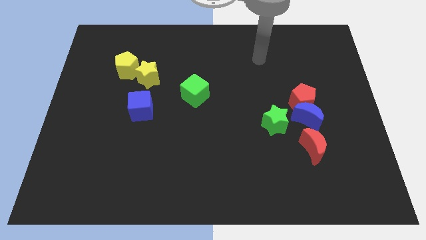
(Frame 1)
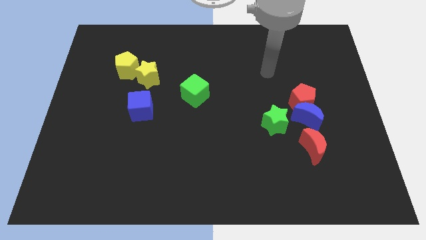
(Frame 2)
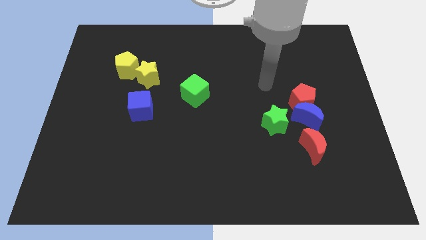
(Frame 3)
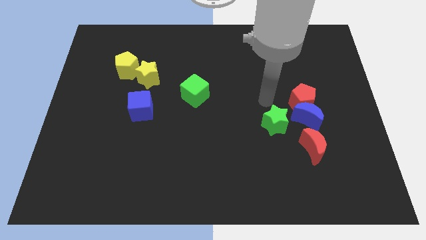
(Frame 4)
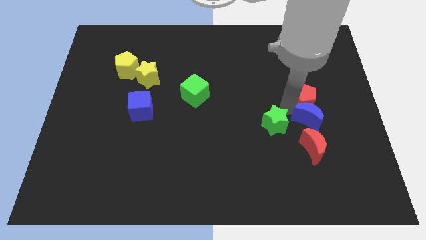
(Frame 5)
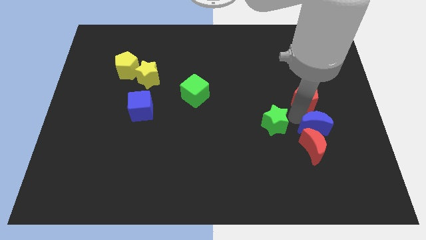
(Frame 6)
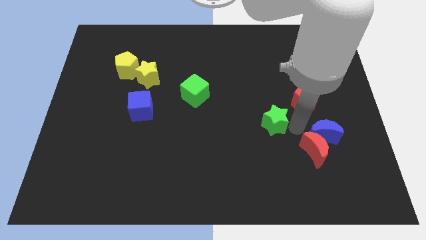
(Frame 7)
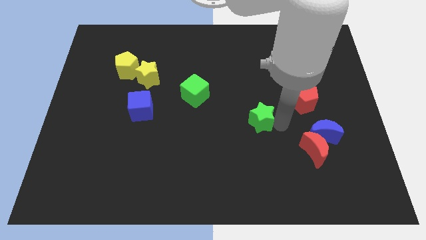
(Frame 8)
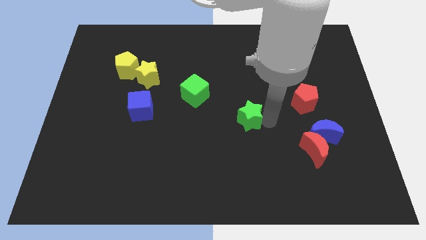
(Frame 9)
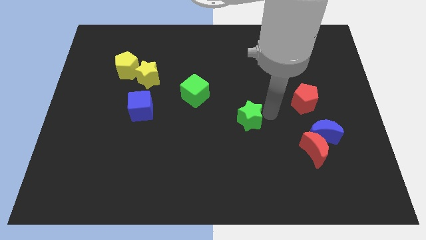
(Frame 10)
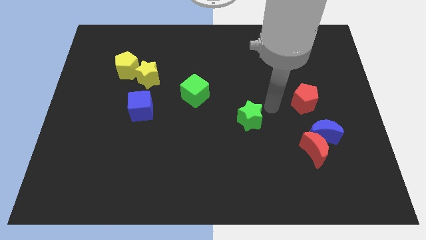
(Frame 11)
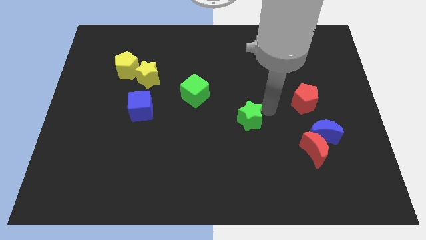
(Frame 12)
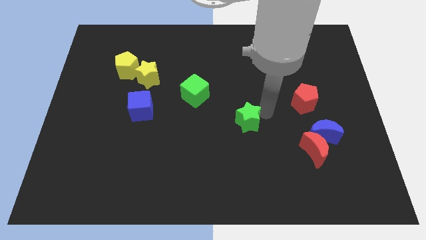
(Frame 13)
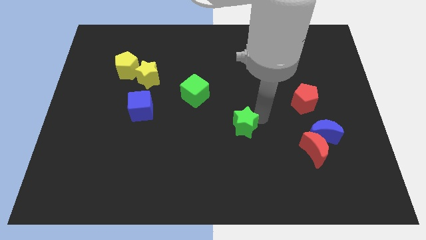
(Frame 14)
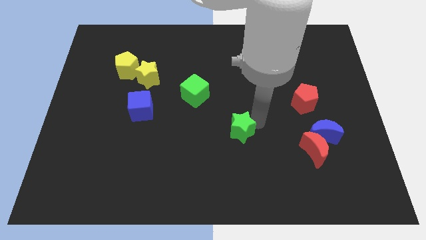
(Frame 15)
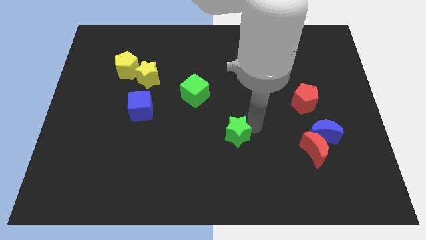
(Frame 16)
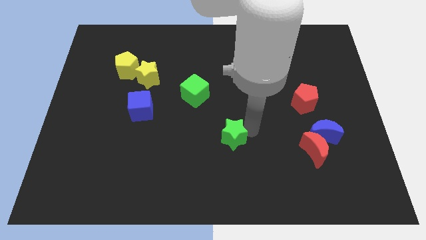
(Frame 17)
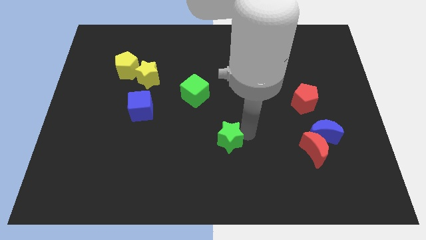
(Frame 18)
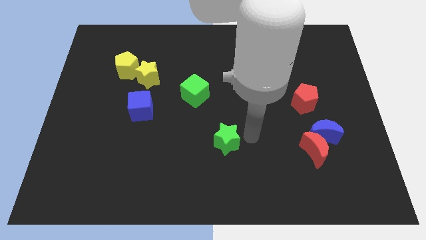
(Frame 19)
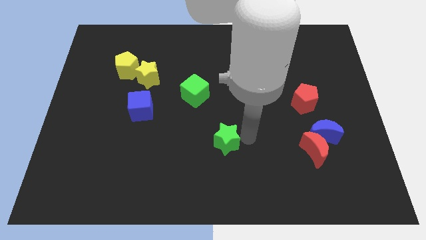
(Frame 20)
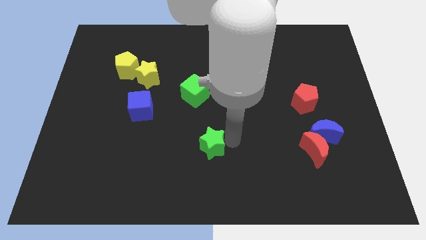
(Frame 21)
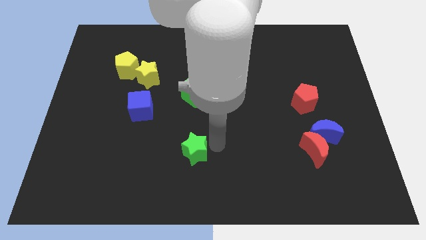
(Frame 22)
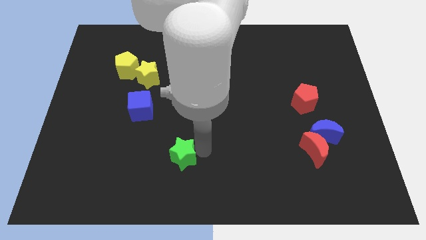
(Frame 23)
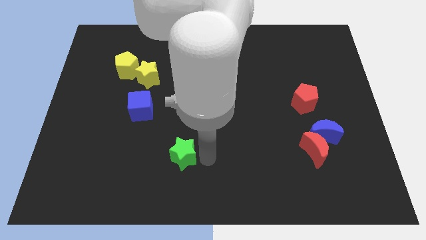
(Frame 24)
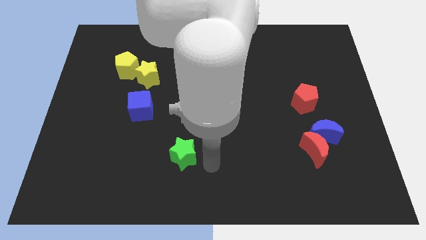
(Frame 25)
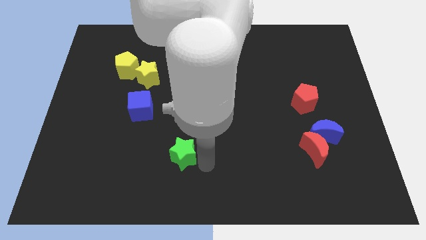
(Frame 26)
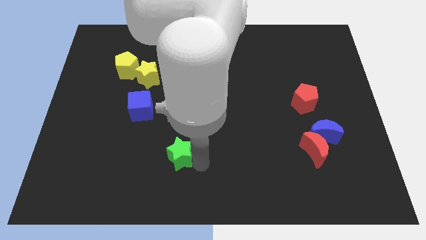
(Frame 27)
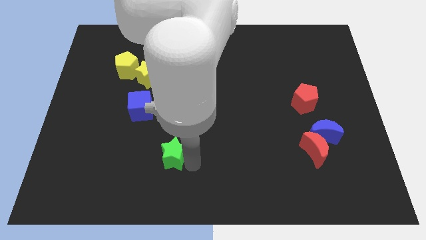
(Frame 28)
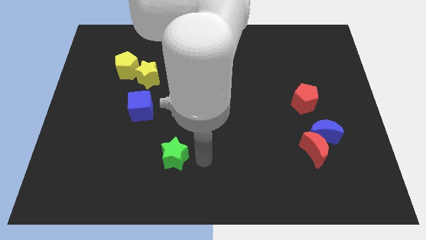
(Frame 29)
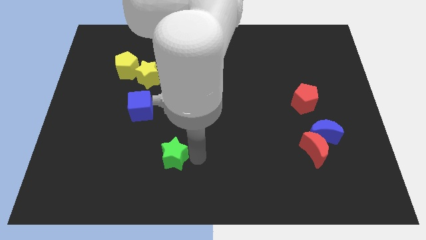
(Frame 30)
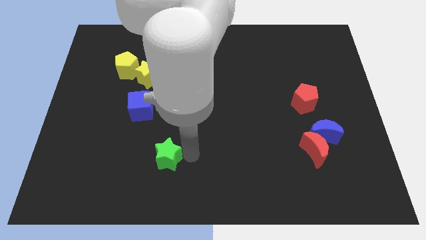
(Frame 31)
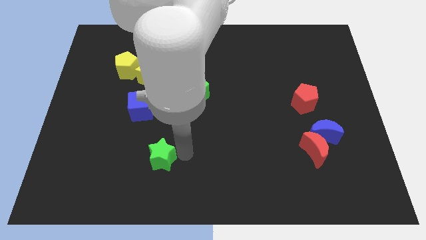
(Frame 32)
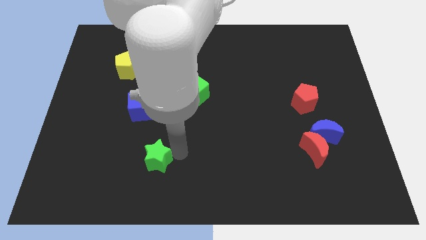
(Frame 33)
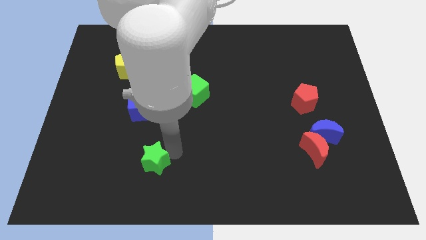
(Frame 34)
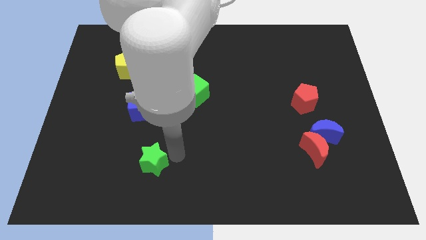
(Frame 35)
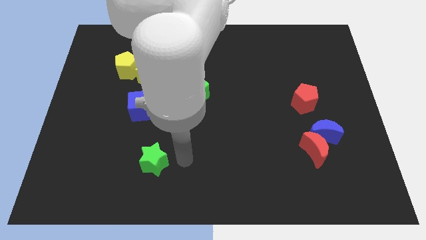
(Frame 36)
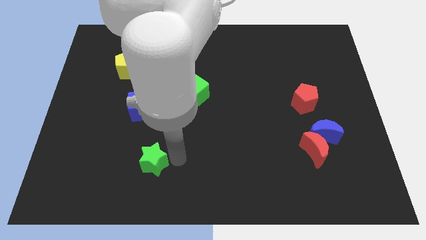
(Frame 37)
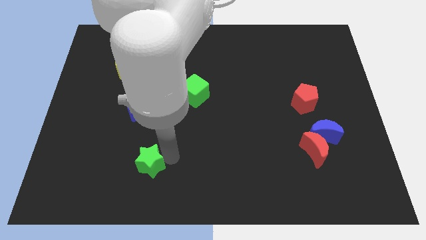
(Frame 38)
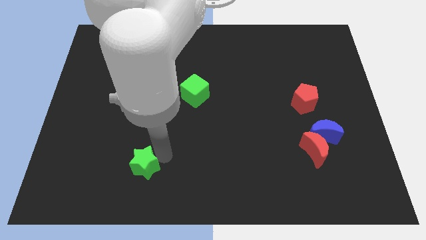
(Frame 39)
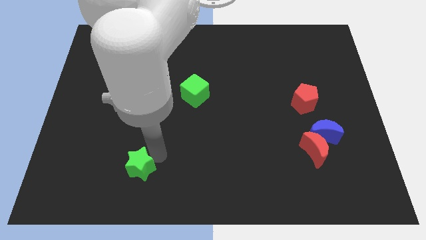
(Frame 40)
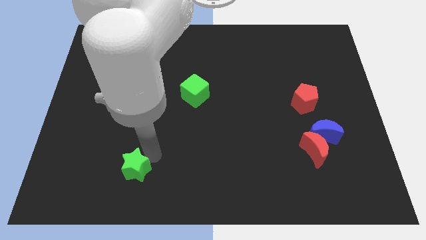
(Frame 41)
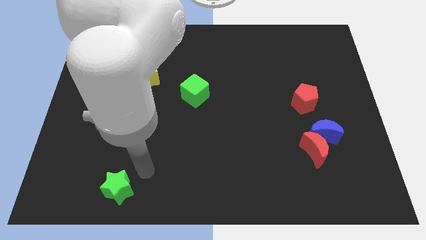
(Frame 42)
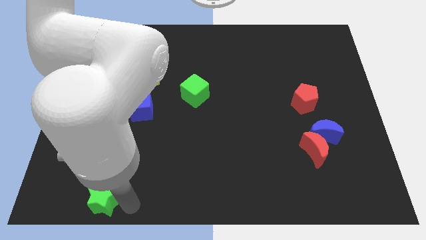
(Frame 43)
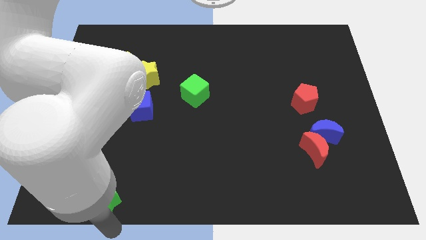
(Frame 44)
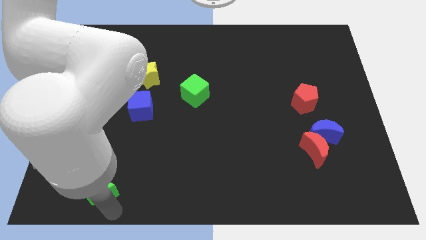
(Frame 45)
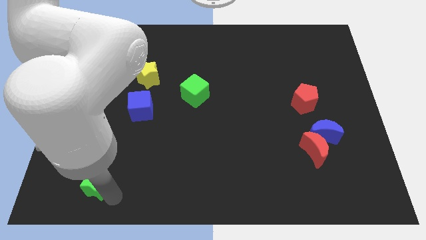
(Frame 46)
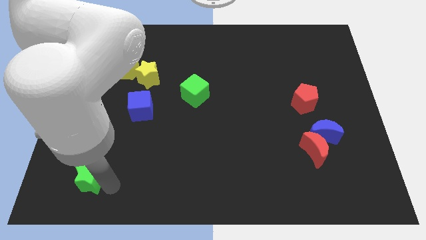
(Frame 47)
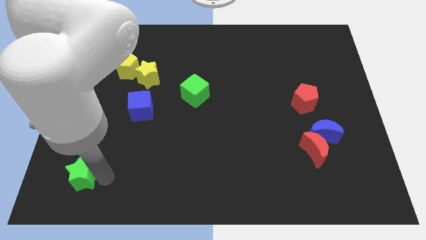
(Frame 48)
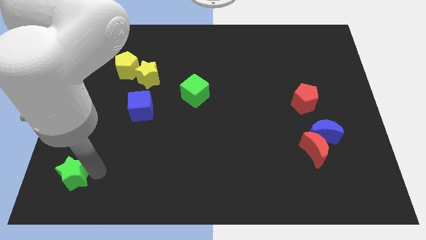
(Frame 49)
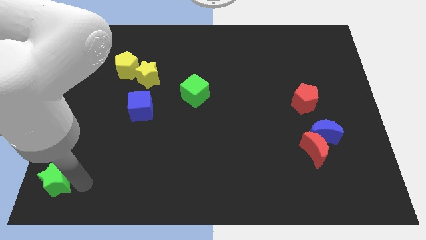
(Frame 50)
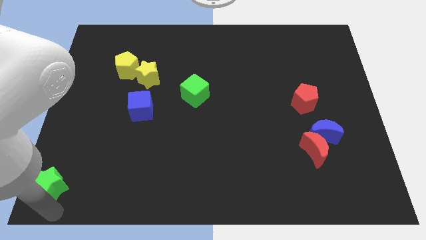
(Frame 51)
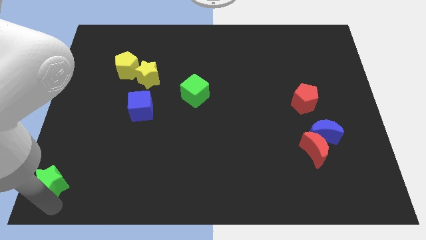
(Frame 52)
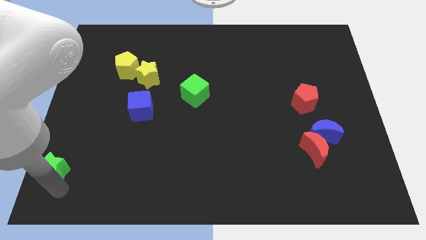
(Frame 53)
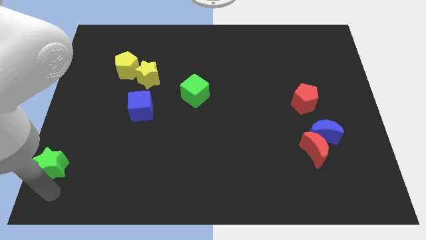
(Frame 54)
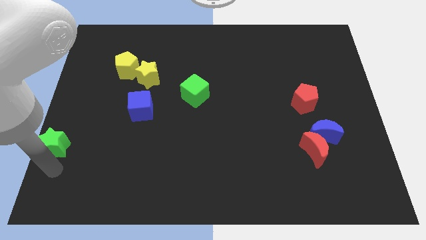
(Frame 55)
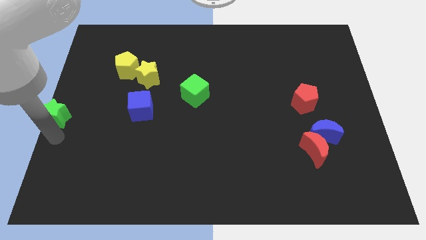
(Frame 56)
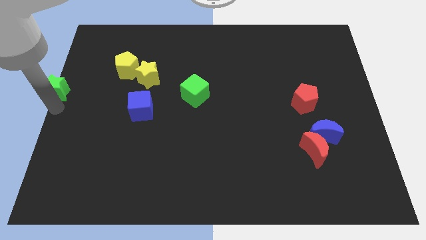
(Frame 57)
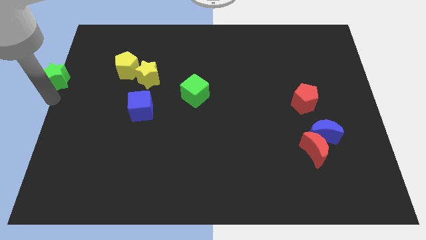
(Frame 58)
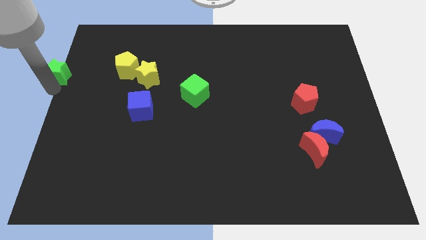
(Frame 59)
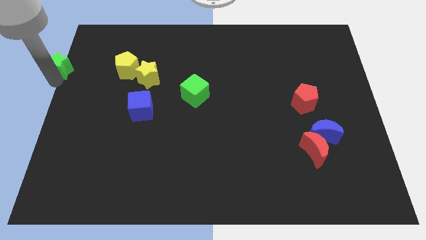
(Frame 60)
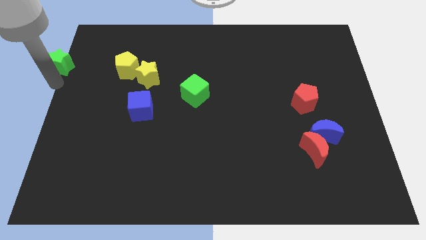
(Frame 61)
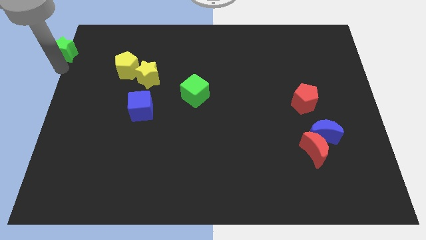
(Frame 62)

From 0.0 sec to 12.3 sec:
move the green star to the top left

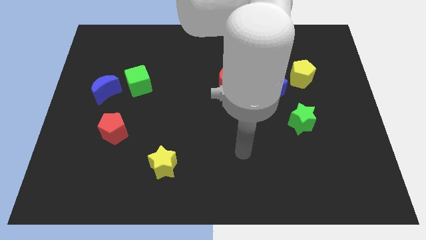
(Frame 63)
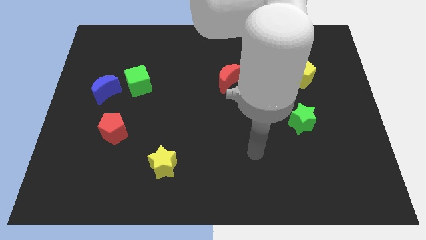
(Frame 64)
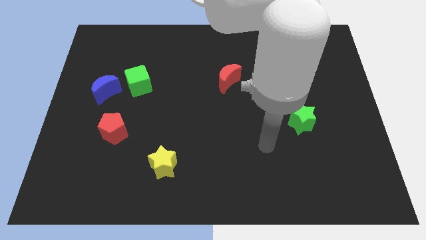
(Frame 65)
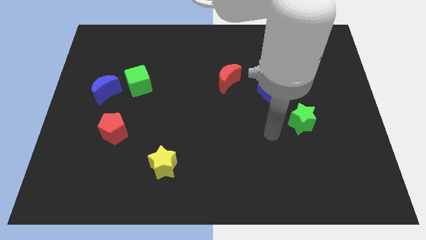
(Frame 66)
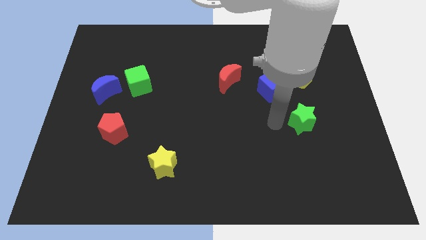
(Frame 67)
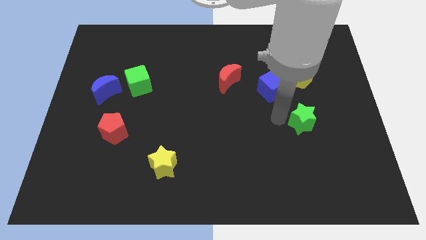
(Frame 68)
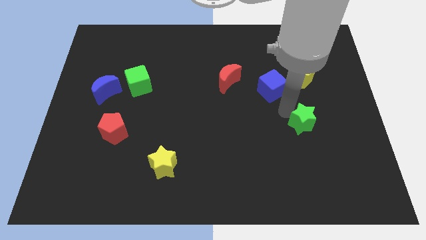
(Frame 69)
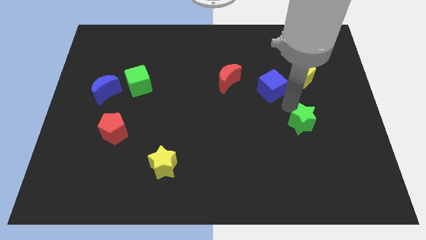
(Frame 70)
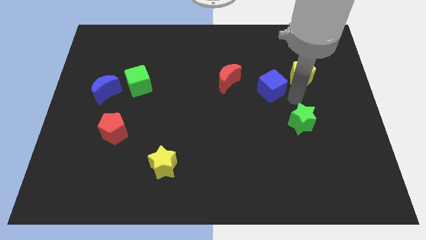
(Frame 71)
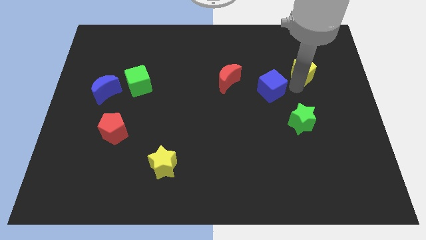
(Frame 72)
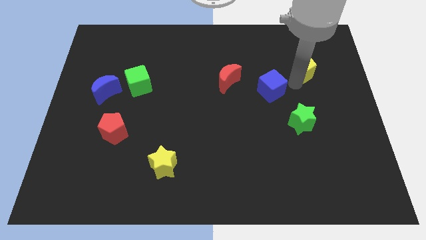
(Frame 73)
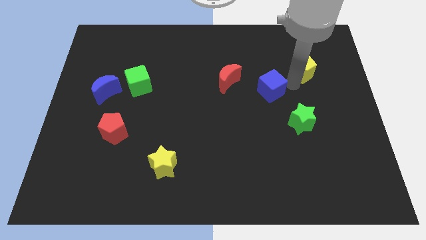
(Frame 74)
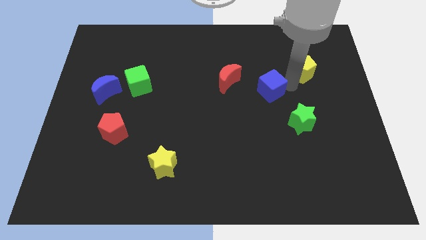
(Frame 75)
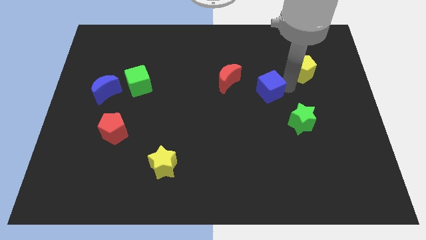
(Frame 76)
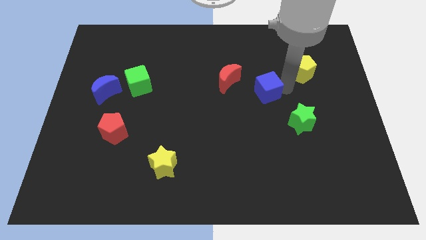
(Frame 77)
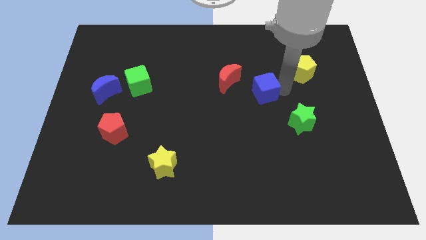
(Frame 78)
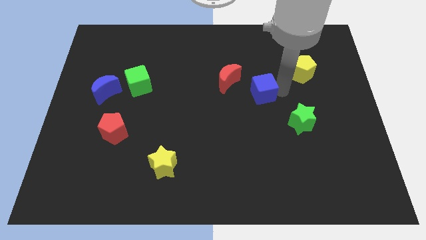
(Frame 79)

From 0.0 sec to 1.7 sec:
push the blue cube to the middle

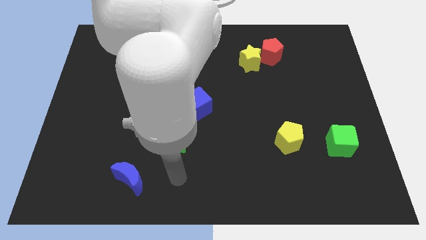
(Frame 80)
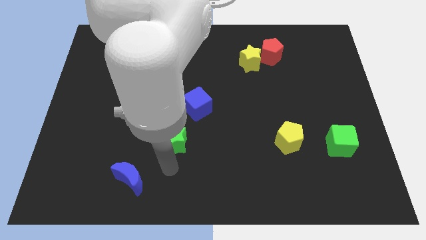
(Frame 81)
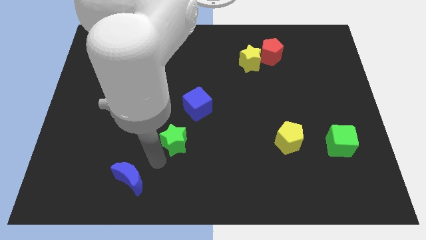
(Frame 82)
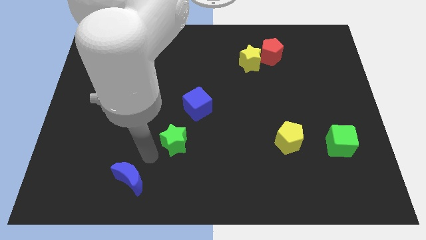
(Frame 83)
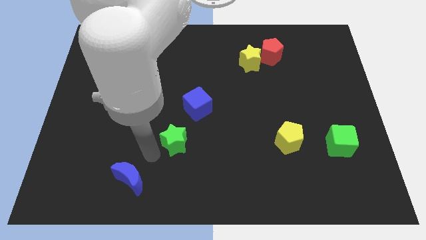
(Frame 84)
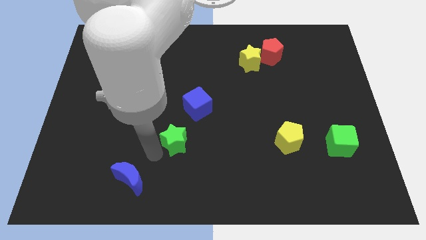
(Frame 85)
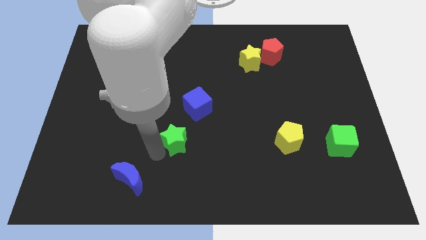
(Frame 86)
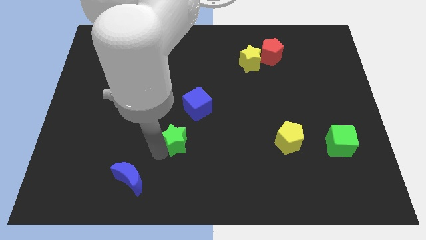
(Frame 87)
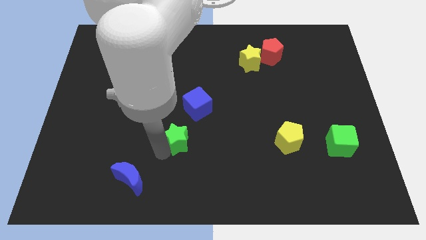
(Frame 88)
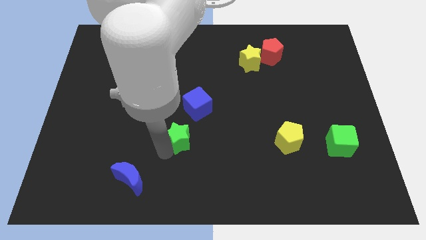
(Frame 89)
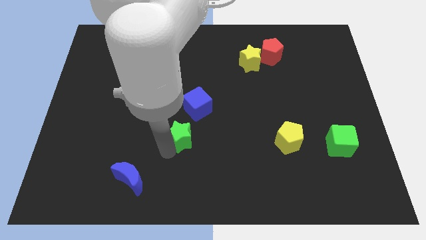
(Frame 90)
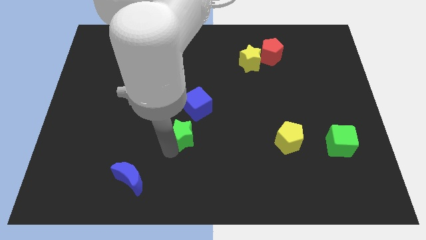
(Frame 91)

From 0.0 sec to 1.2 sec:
slide the green star to the center of the board
